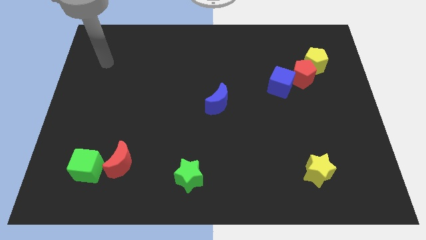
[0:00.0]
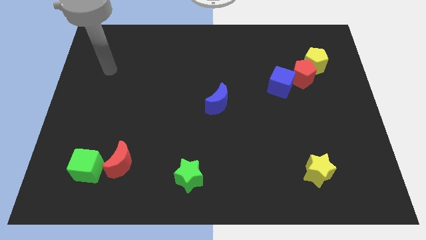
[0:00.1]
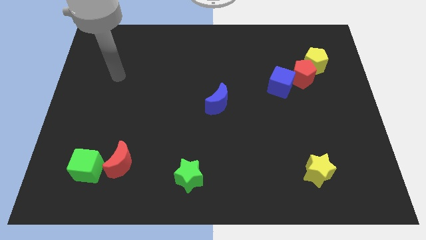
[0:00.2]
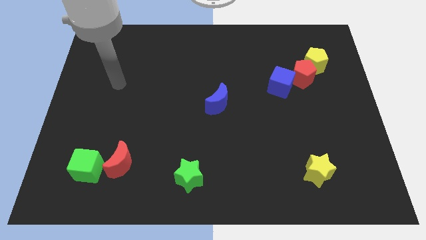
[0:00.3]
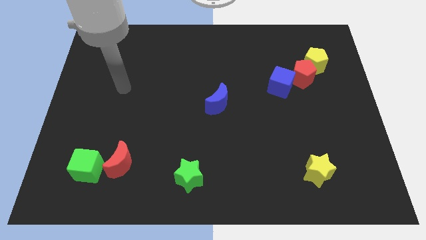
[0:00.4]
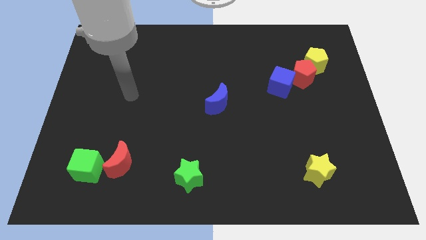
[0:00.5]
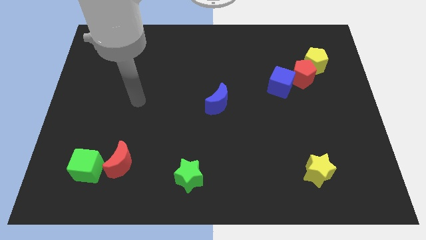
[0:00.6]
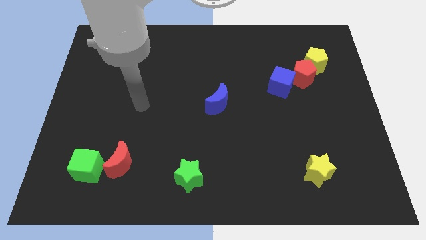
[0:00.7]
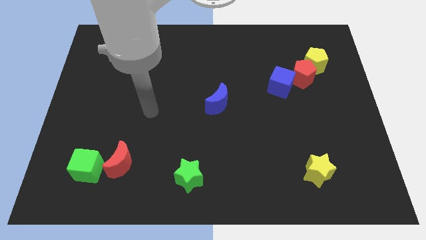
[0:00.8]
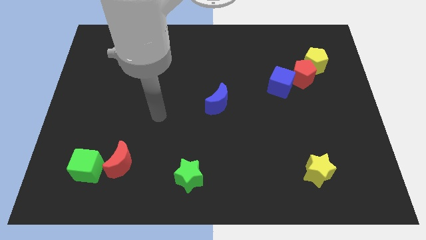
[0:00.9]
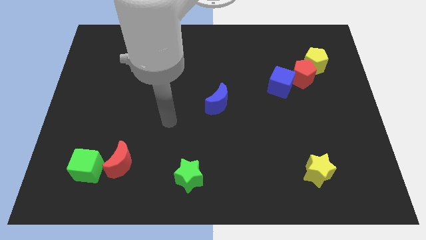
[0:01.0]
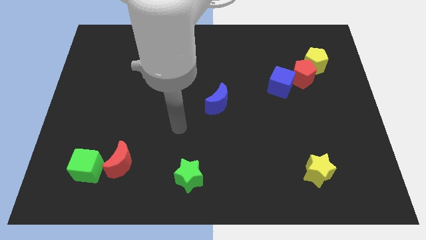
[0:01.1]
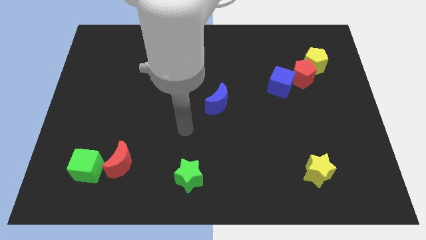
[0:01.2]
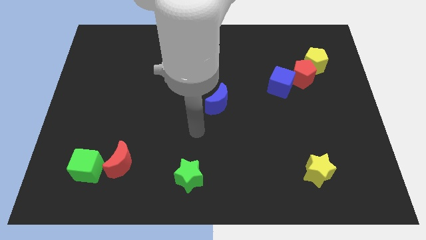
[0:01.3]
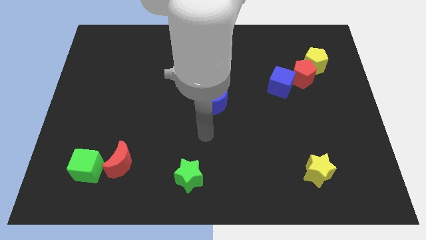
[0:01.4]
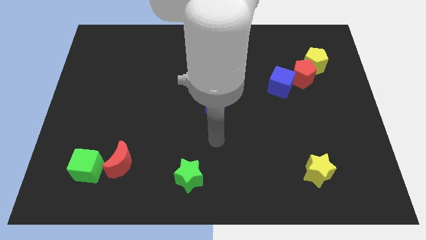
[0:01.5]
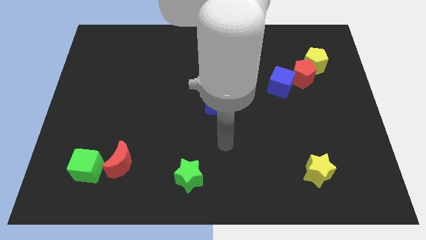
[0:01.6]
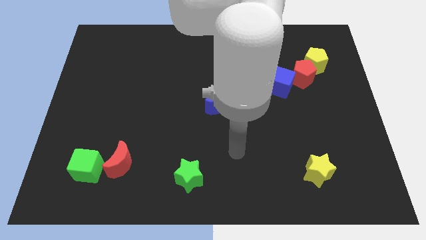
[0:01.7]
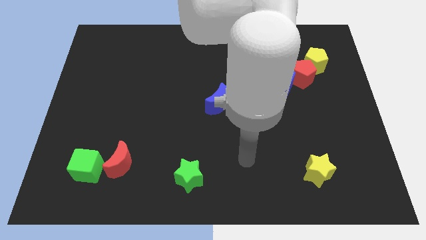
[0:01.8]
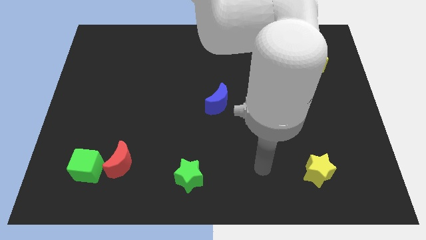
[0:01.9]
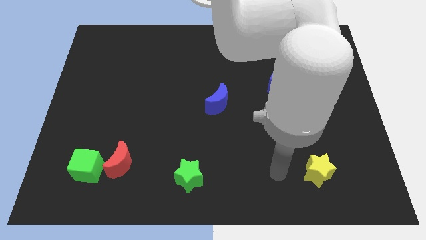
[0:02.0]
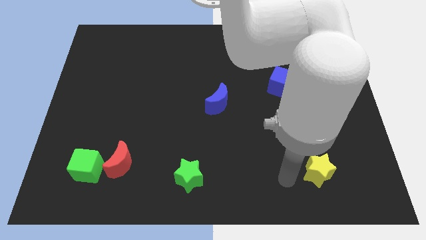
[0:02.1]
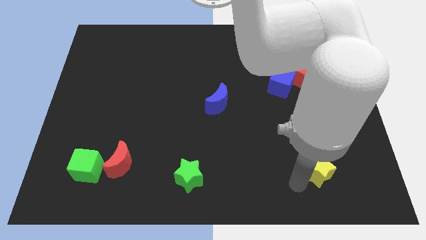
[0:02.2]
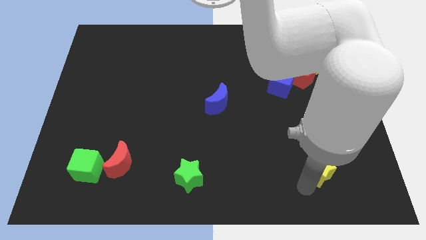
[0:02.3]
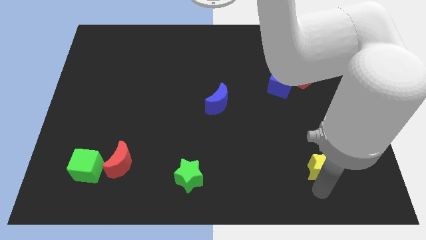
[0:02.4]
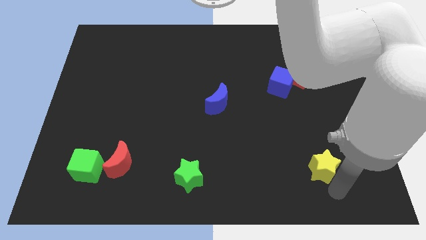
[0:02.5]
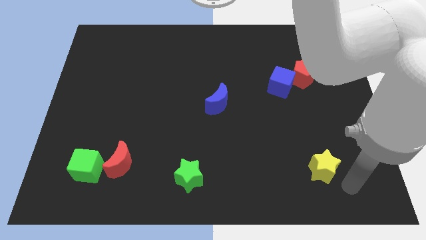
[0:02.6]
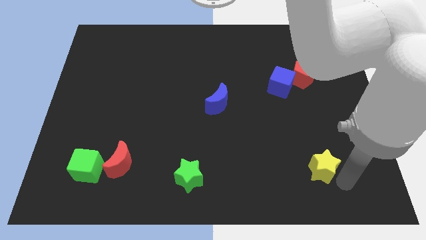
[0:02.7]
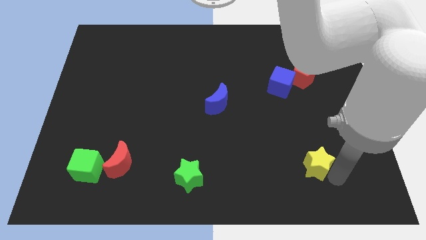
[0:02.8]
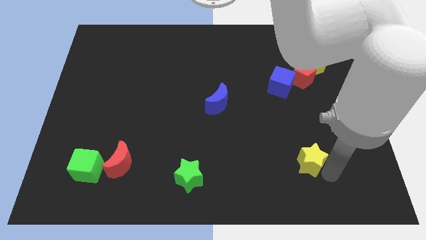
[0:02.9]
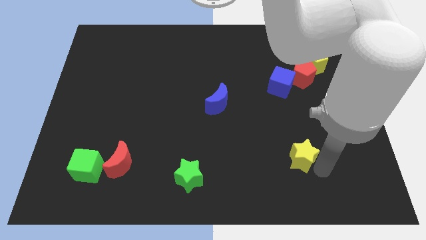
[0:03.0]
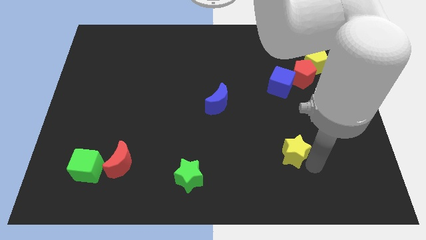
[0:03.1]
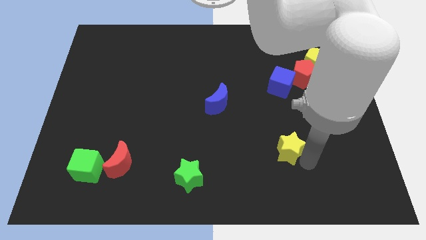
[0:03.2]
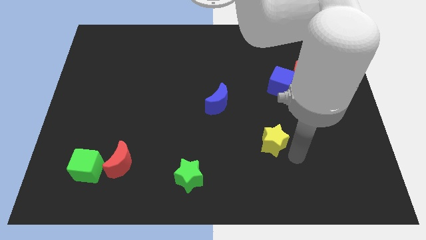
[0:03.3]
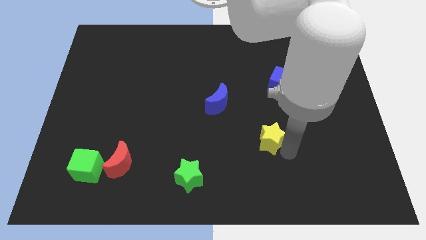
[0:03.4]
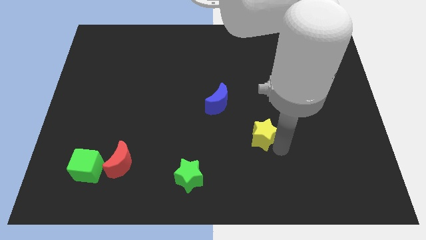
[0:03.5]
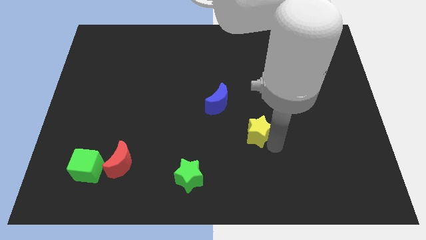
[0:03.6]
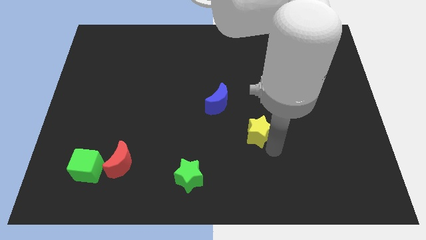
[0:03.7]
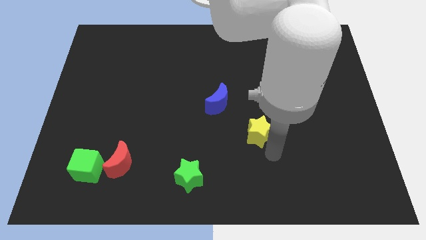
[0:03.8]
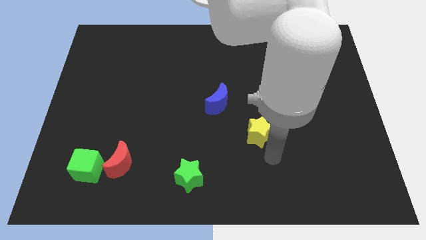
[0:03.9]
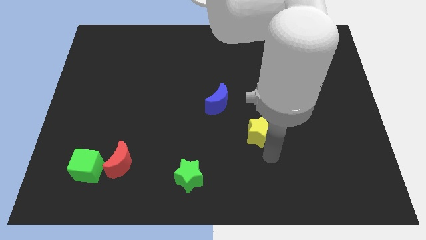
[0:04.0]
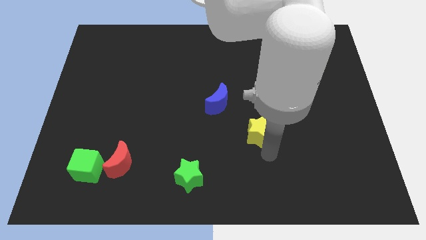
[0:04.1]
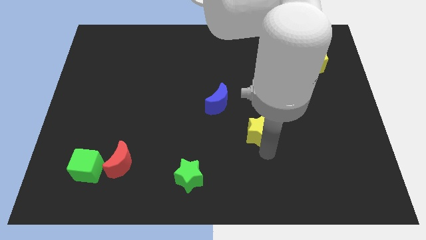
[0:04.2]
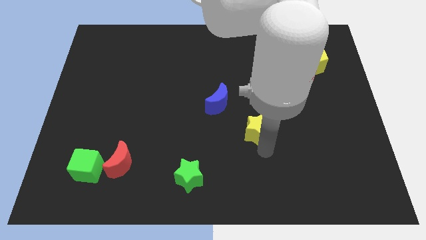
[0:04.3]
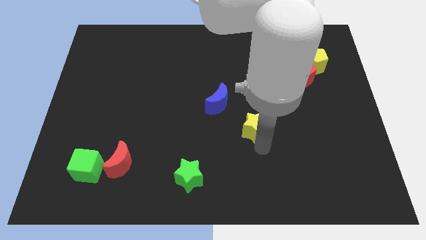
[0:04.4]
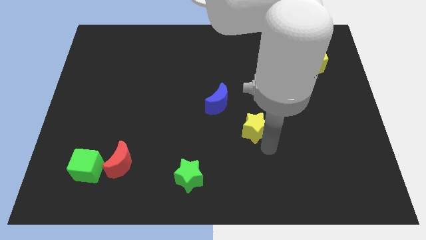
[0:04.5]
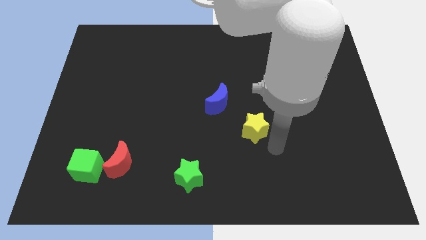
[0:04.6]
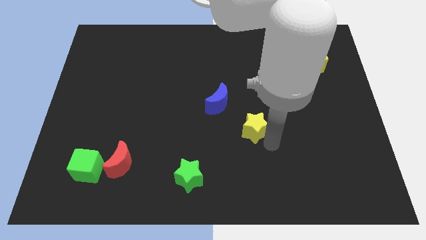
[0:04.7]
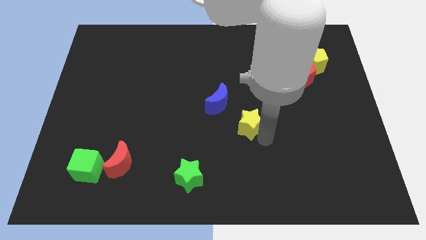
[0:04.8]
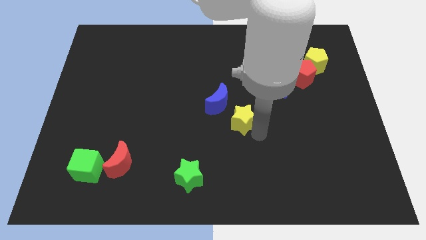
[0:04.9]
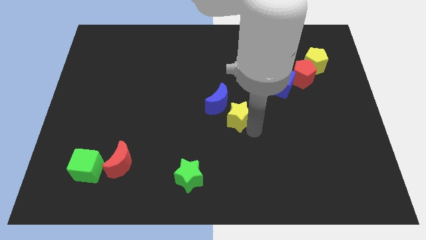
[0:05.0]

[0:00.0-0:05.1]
put the yellow star towards the blue moon
